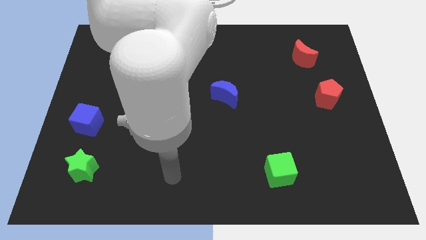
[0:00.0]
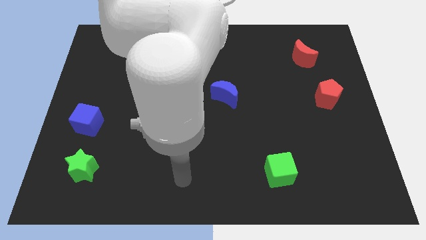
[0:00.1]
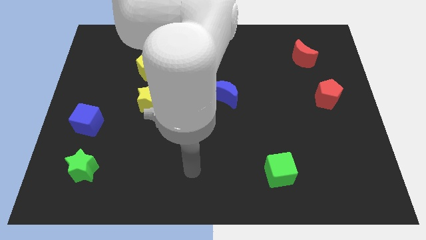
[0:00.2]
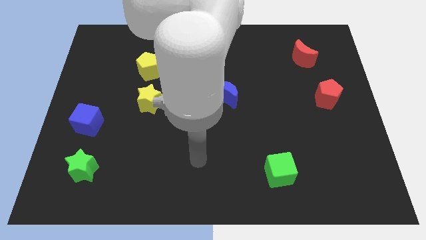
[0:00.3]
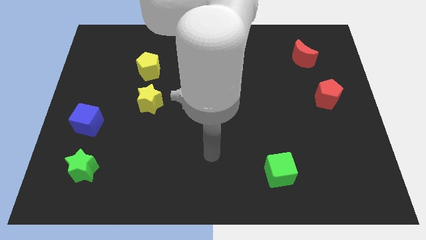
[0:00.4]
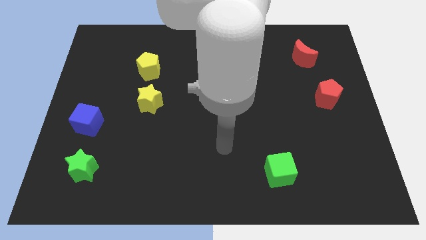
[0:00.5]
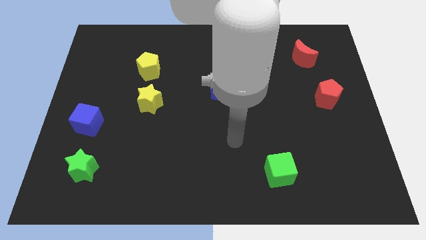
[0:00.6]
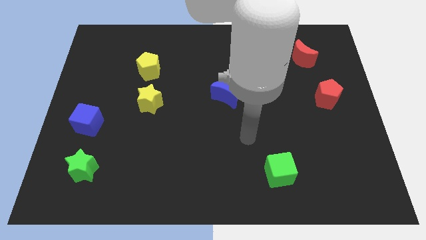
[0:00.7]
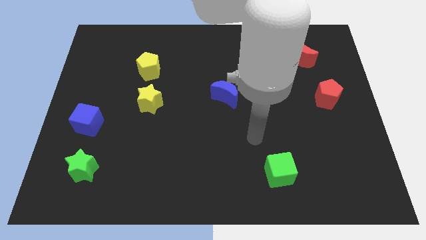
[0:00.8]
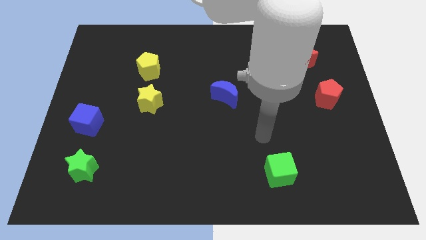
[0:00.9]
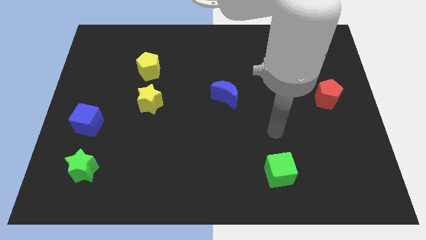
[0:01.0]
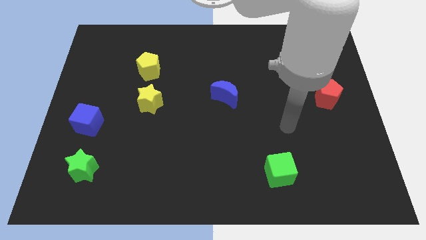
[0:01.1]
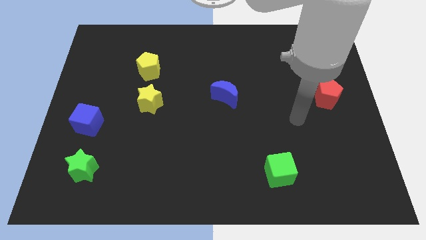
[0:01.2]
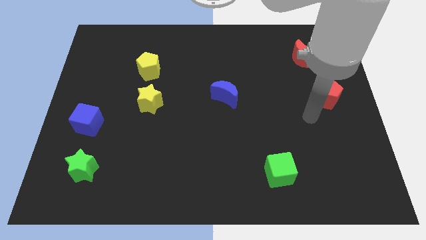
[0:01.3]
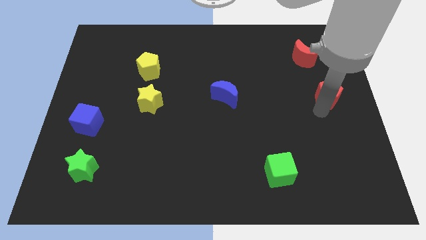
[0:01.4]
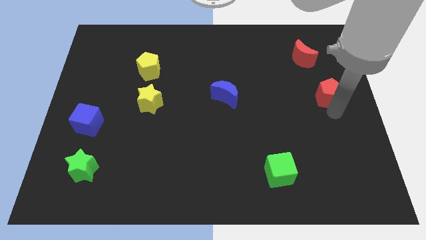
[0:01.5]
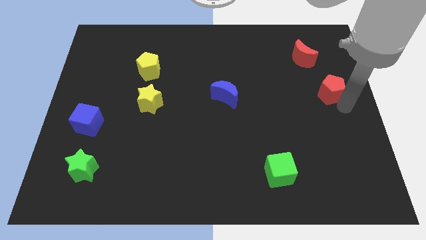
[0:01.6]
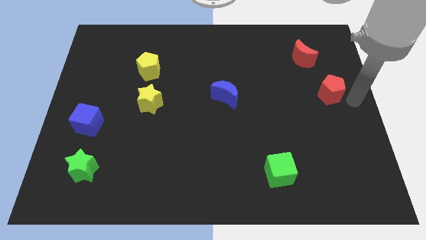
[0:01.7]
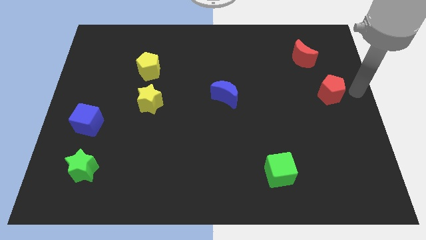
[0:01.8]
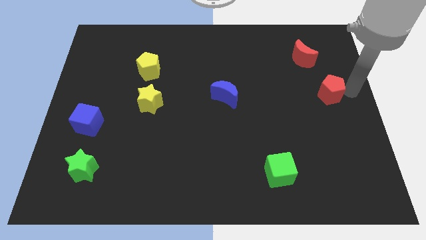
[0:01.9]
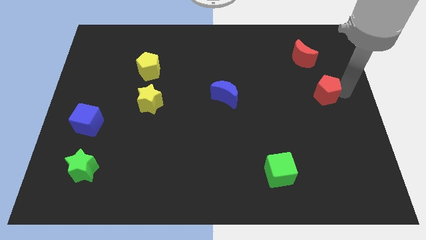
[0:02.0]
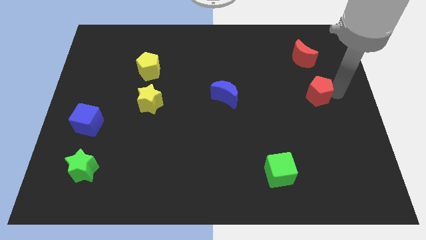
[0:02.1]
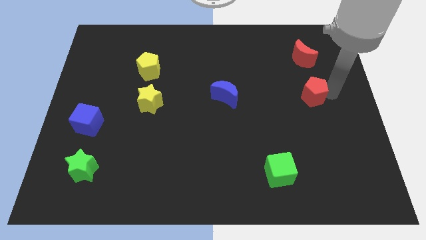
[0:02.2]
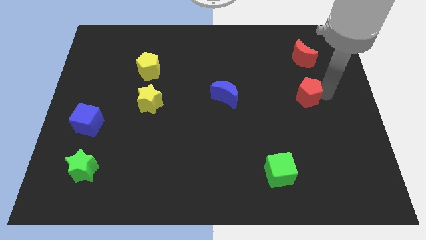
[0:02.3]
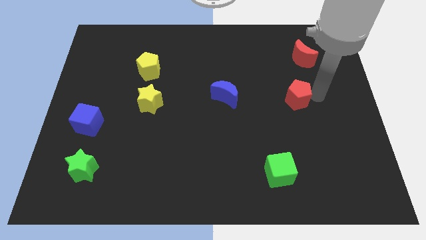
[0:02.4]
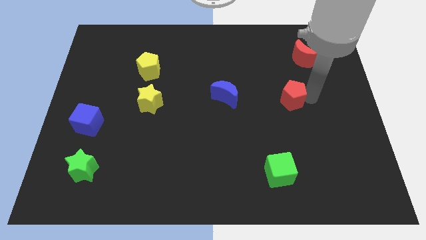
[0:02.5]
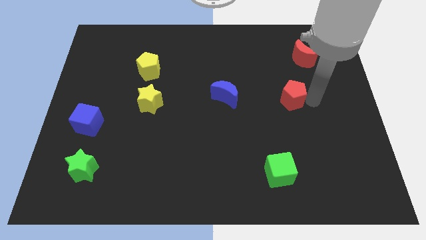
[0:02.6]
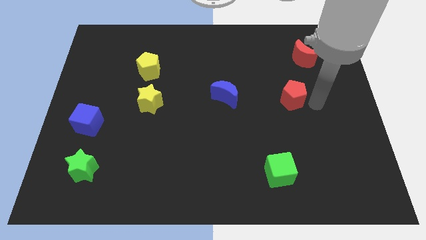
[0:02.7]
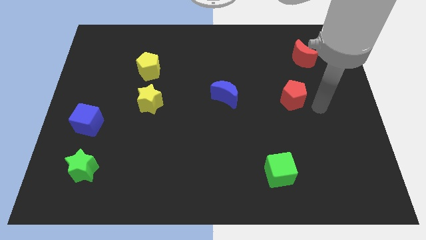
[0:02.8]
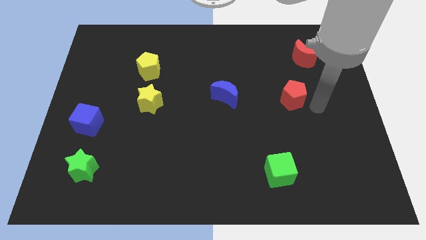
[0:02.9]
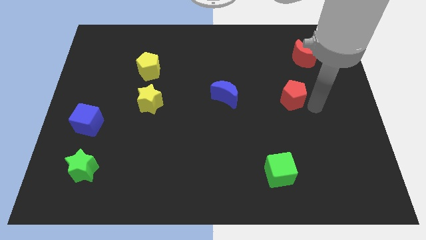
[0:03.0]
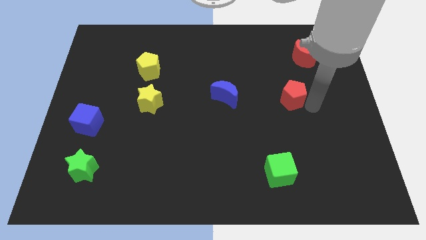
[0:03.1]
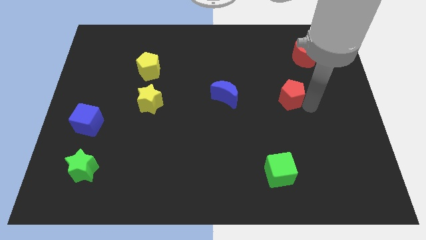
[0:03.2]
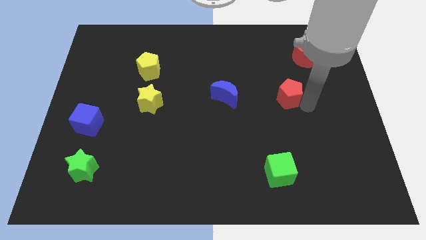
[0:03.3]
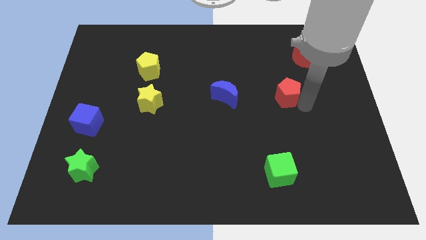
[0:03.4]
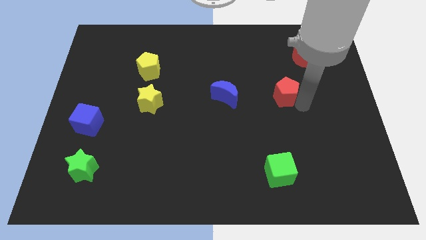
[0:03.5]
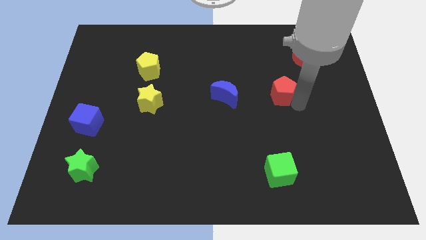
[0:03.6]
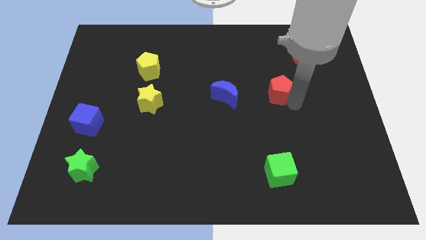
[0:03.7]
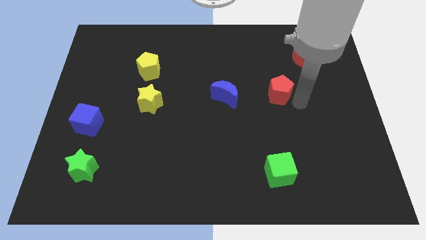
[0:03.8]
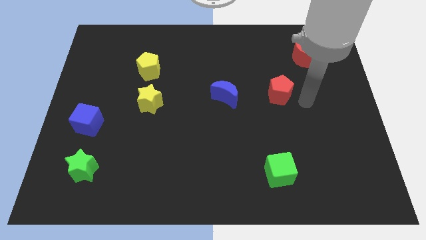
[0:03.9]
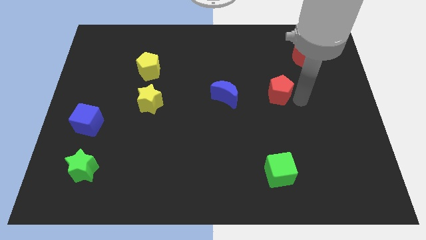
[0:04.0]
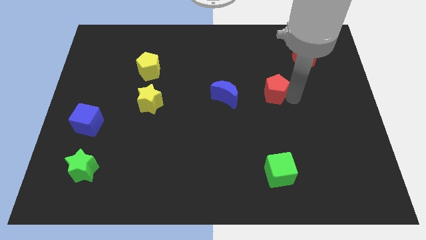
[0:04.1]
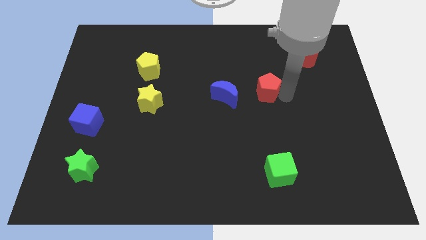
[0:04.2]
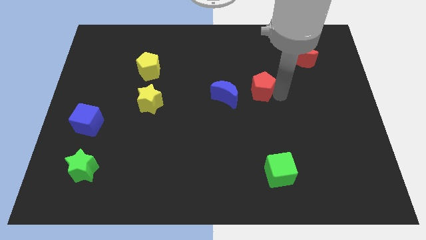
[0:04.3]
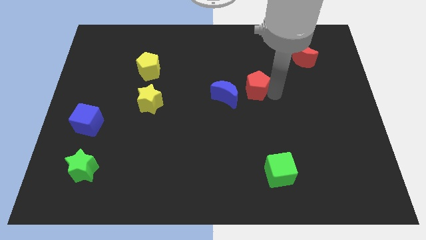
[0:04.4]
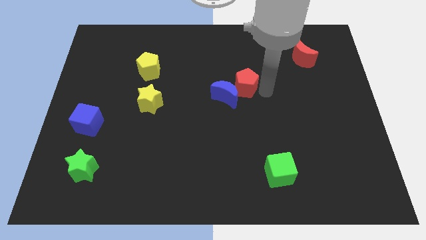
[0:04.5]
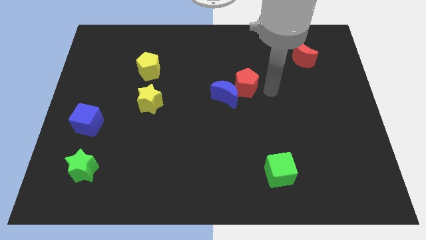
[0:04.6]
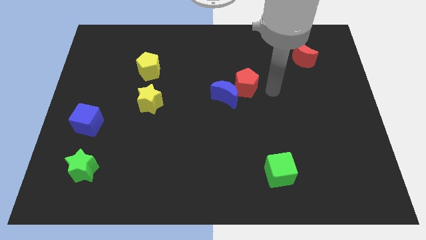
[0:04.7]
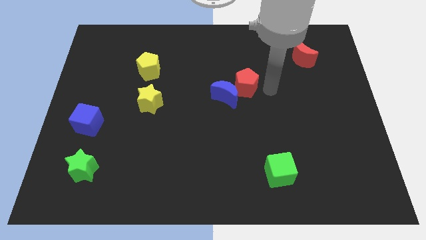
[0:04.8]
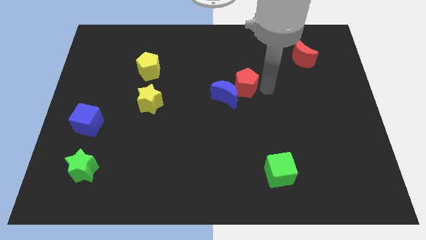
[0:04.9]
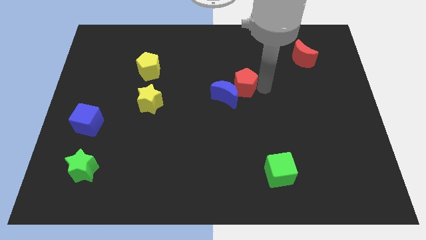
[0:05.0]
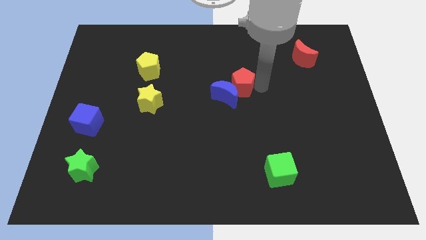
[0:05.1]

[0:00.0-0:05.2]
push the red pentagon left

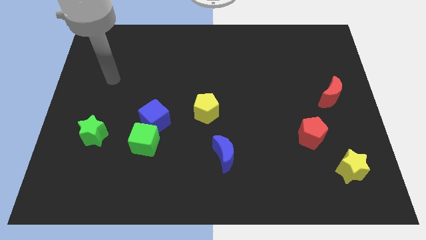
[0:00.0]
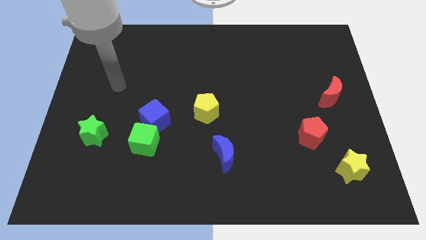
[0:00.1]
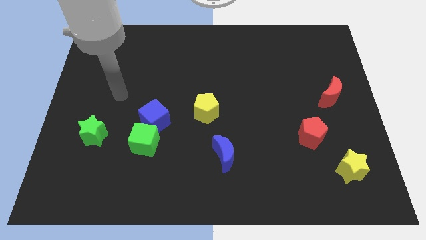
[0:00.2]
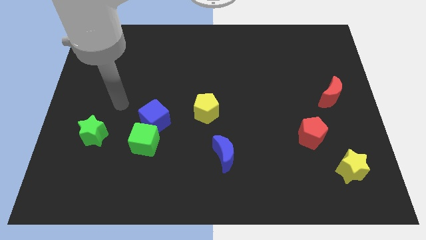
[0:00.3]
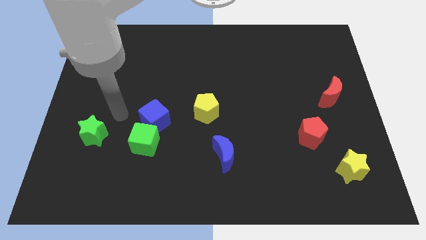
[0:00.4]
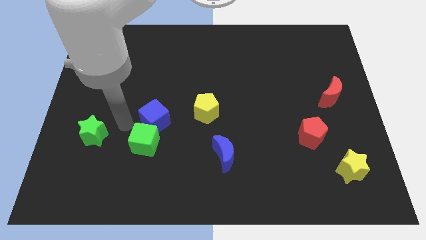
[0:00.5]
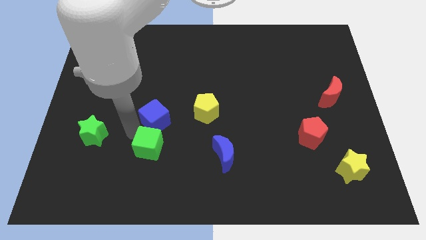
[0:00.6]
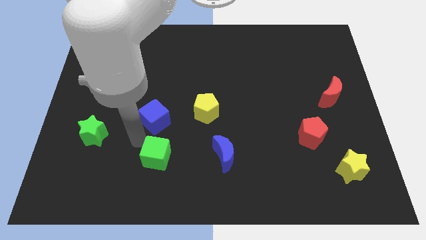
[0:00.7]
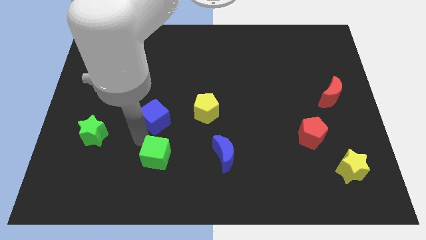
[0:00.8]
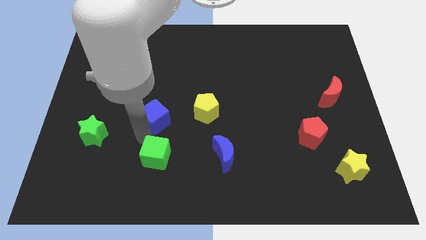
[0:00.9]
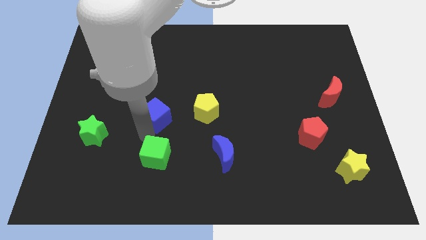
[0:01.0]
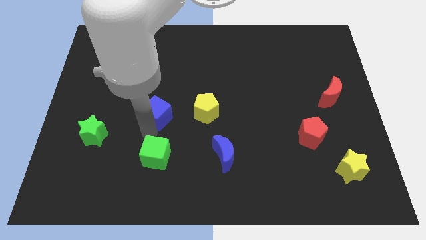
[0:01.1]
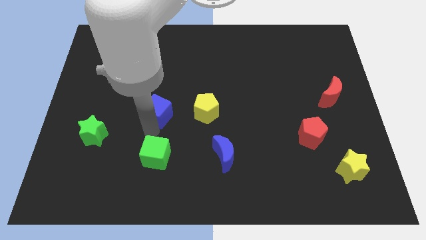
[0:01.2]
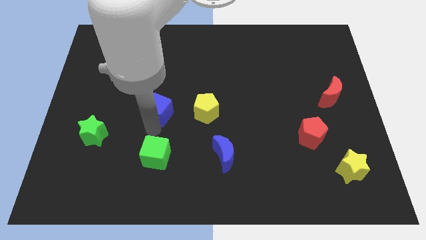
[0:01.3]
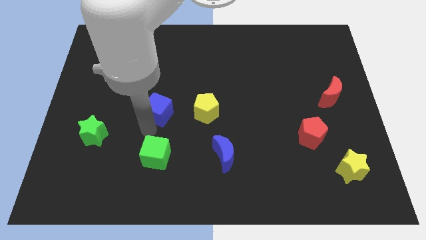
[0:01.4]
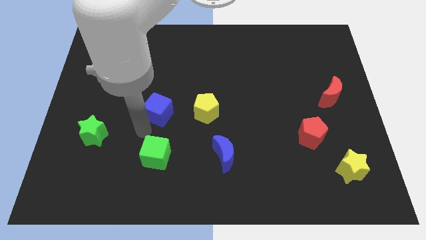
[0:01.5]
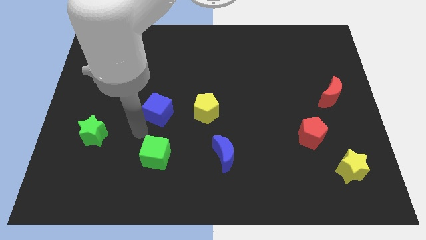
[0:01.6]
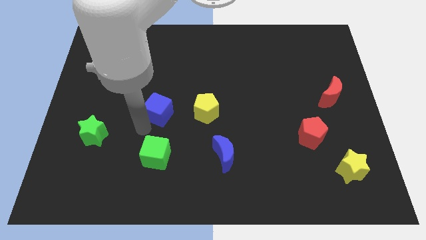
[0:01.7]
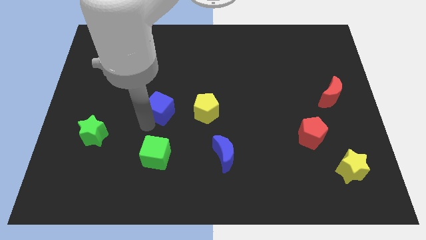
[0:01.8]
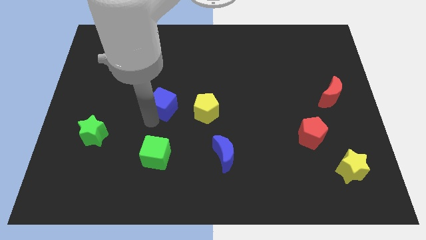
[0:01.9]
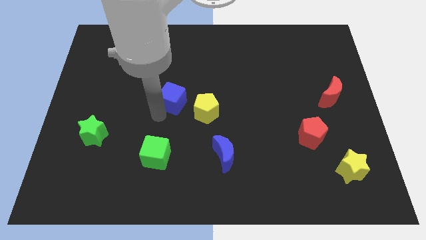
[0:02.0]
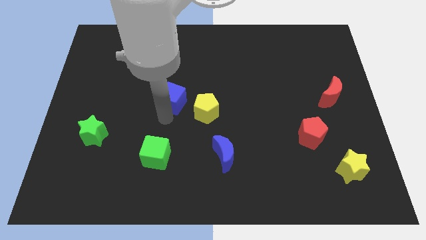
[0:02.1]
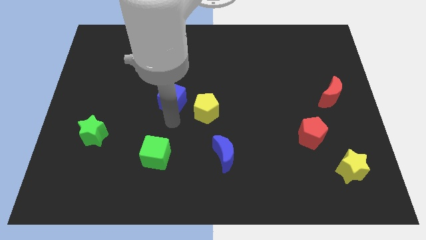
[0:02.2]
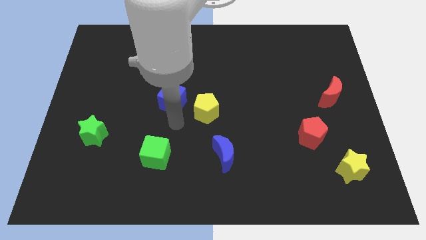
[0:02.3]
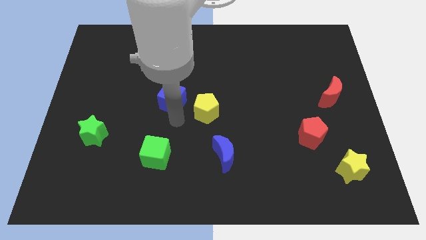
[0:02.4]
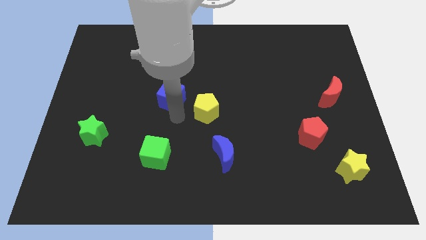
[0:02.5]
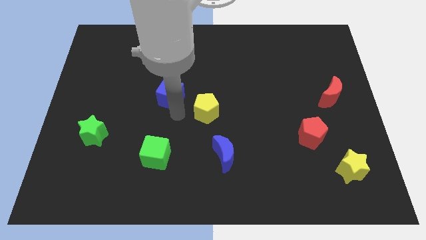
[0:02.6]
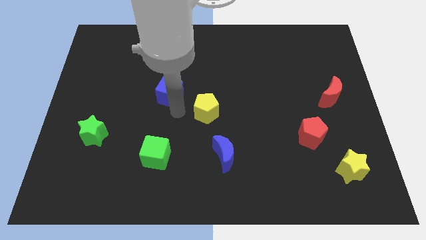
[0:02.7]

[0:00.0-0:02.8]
slightly slide the blue cube upwards
